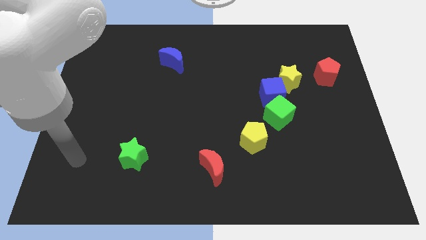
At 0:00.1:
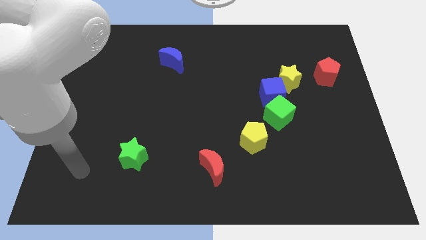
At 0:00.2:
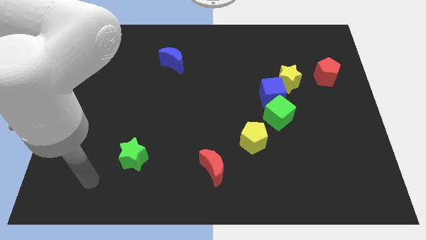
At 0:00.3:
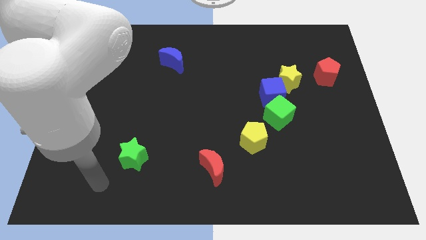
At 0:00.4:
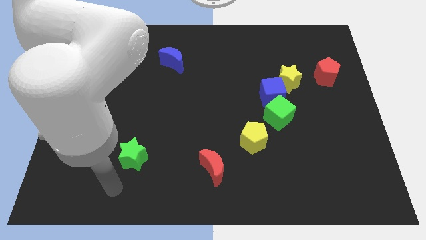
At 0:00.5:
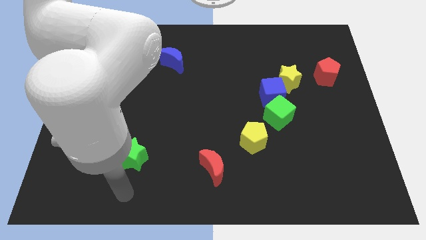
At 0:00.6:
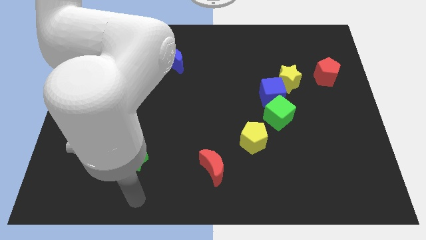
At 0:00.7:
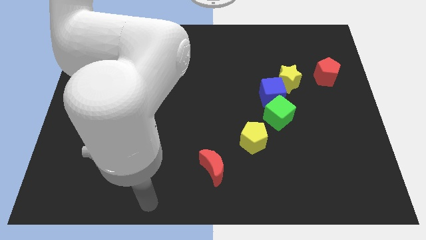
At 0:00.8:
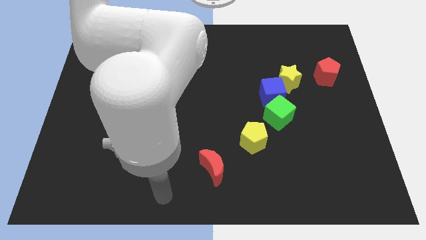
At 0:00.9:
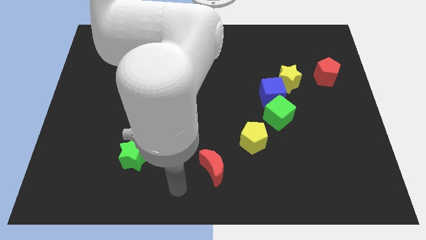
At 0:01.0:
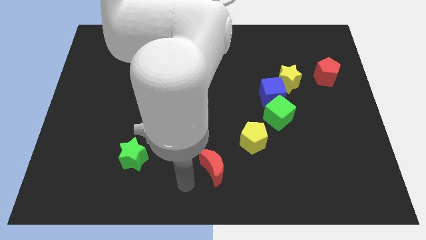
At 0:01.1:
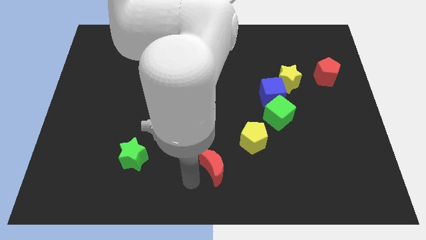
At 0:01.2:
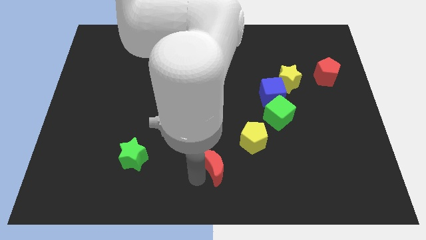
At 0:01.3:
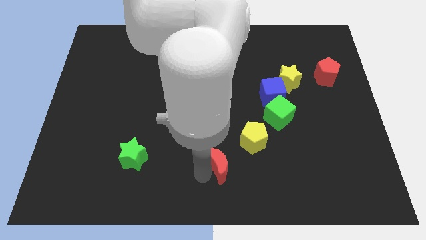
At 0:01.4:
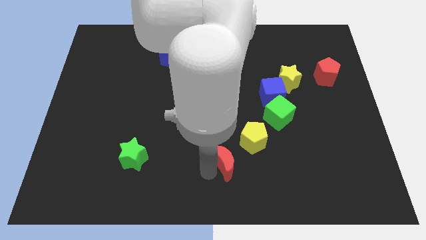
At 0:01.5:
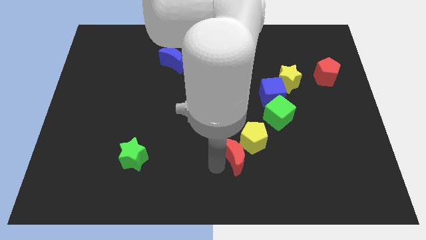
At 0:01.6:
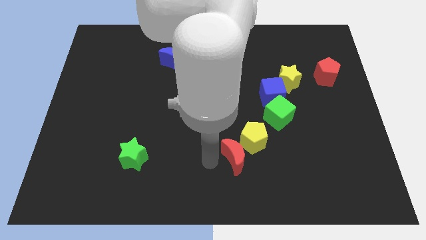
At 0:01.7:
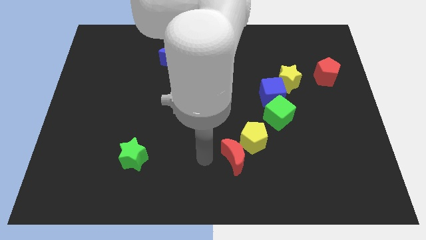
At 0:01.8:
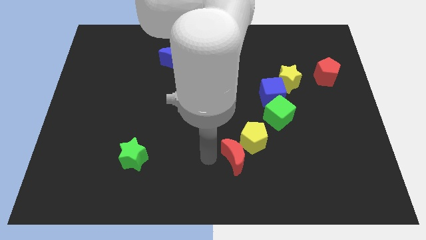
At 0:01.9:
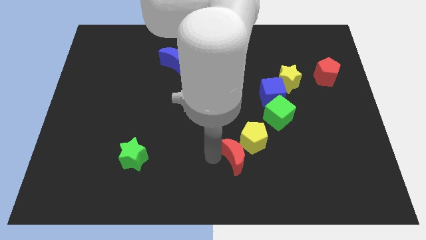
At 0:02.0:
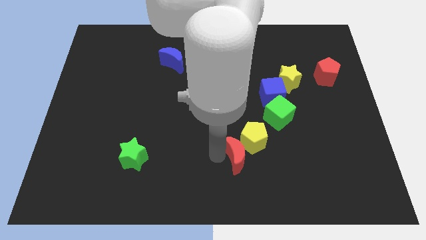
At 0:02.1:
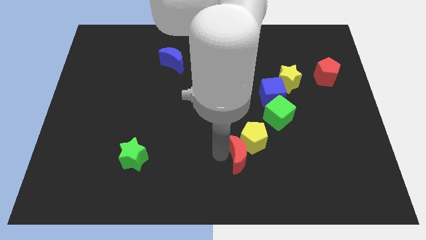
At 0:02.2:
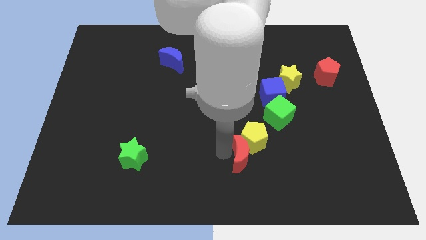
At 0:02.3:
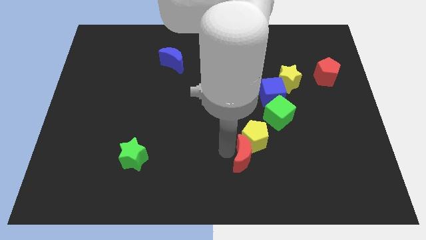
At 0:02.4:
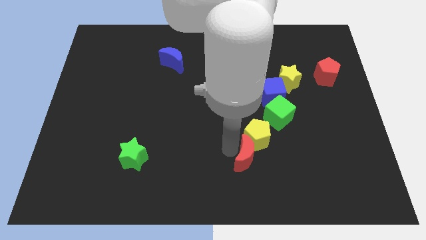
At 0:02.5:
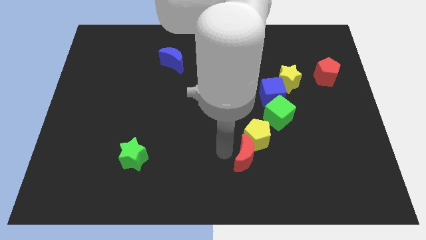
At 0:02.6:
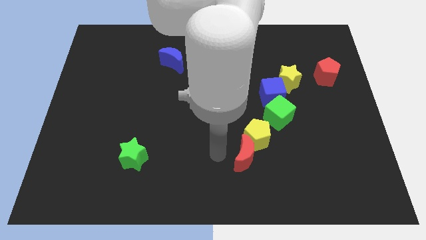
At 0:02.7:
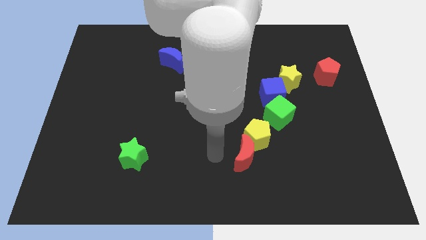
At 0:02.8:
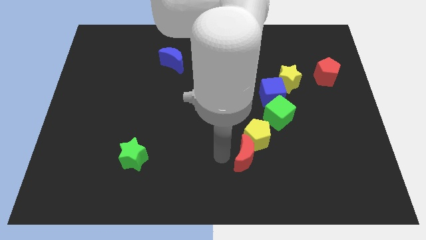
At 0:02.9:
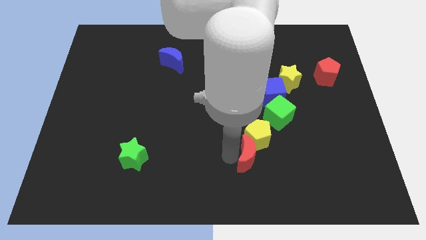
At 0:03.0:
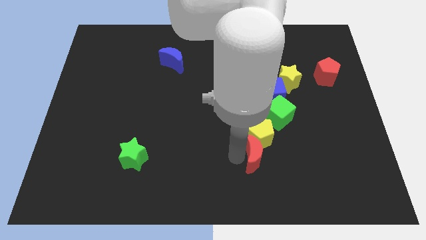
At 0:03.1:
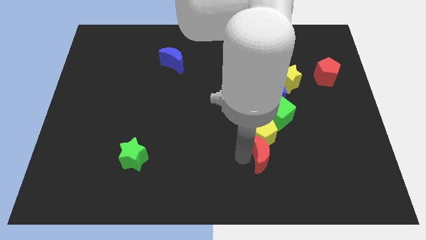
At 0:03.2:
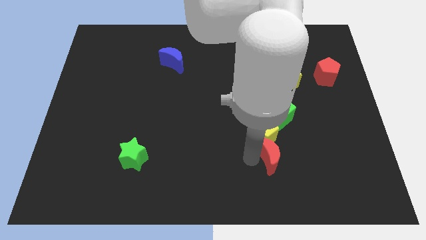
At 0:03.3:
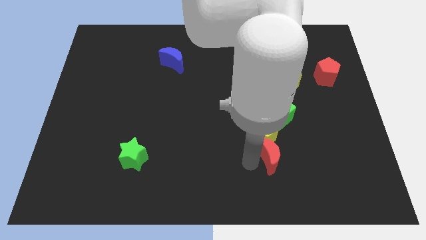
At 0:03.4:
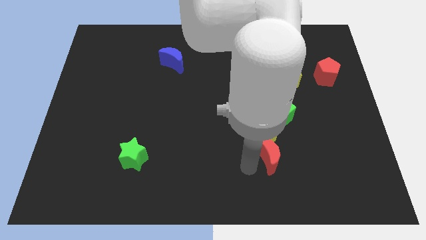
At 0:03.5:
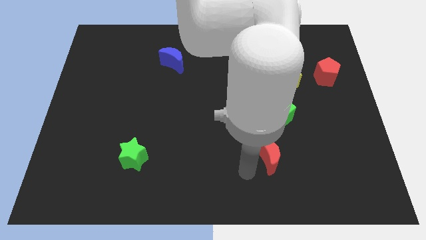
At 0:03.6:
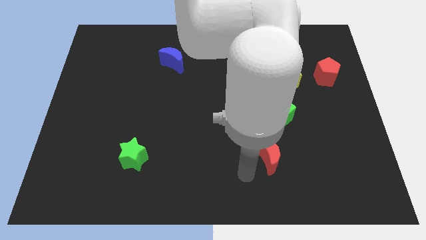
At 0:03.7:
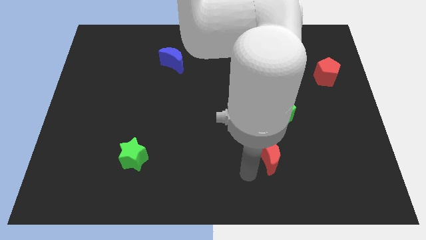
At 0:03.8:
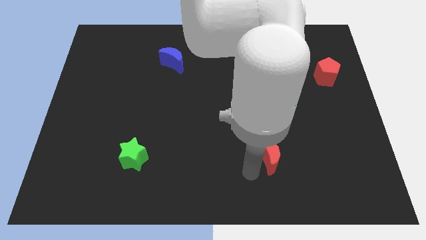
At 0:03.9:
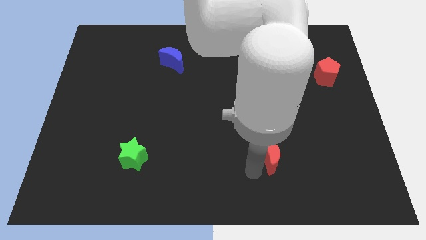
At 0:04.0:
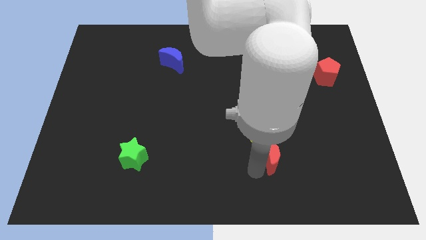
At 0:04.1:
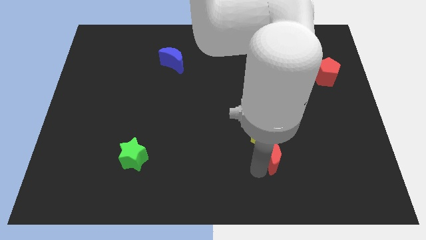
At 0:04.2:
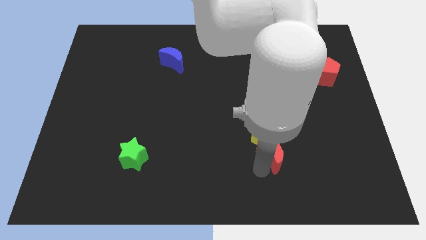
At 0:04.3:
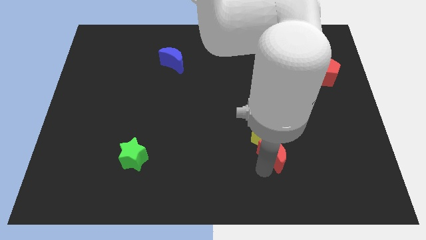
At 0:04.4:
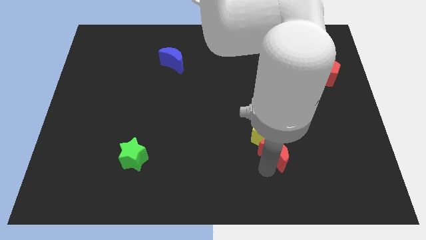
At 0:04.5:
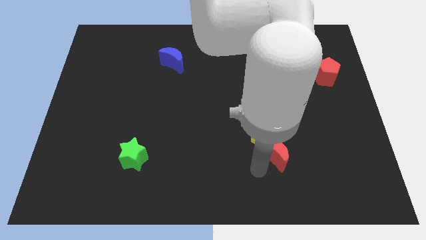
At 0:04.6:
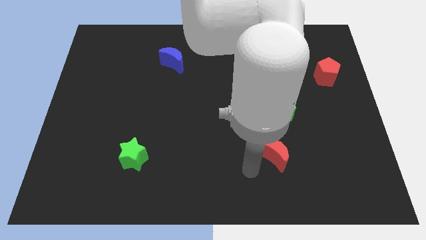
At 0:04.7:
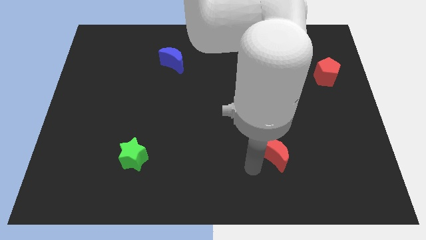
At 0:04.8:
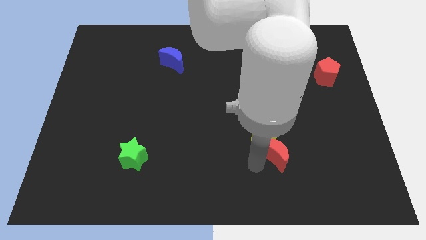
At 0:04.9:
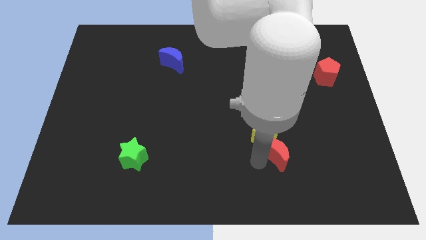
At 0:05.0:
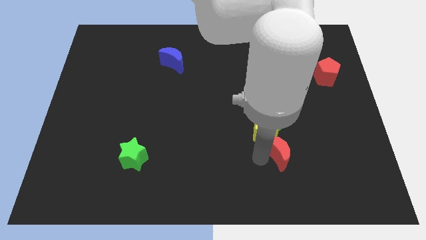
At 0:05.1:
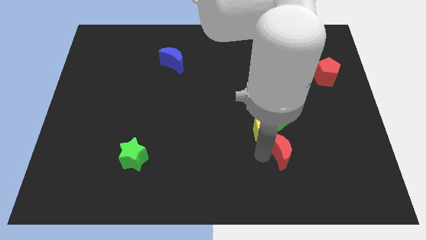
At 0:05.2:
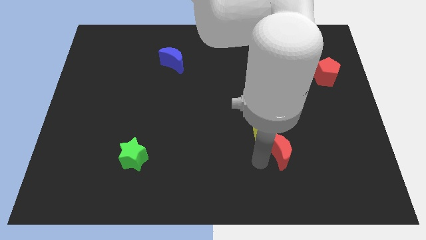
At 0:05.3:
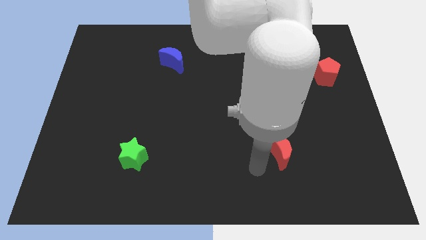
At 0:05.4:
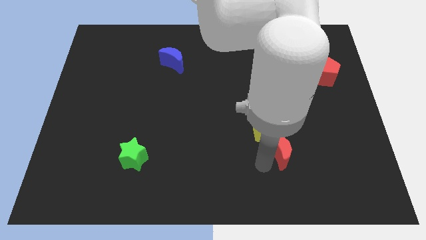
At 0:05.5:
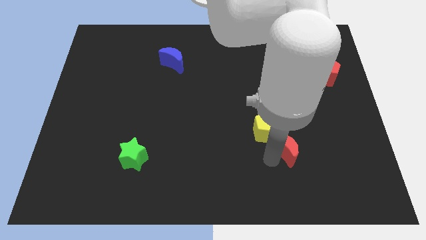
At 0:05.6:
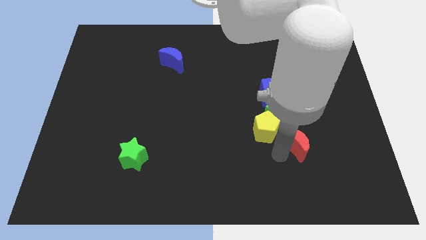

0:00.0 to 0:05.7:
push the red moon to the right side of the yellow pentagon

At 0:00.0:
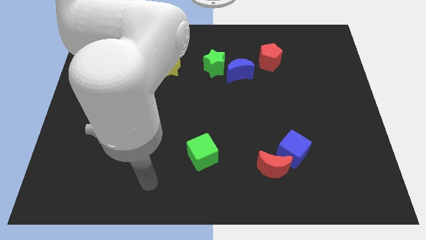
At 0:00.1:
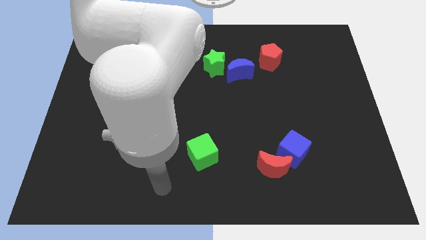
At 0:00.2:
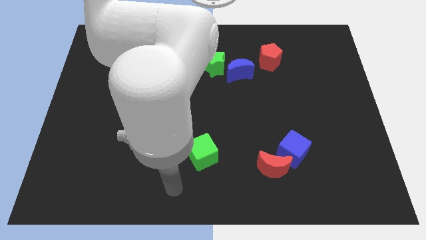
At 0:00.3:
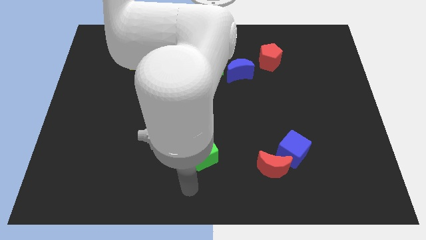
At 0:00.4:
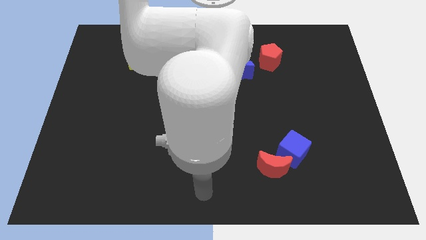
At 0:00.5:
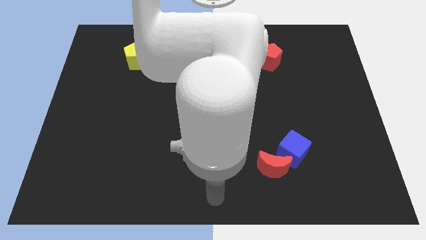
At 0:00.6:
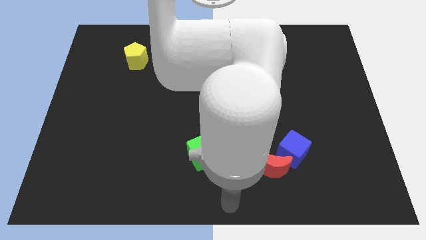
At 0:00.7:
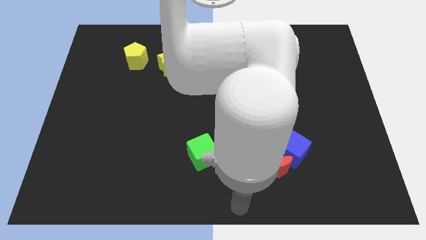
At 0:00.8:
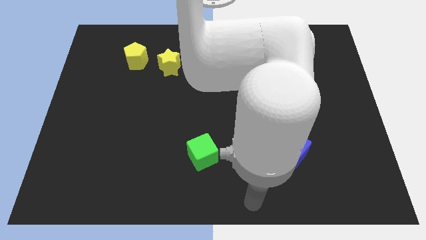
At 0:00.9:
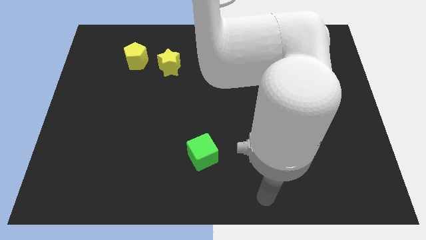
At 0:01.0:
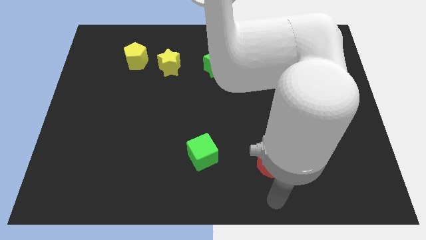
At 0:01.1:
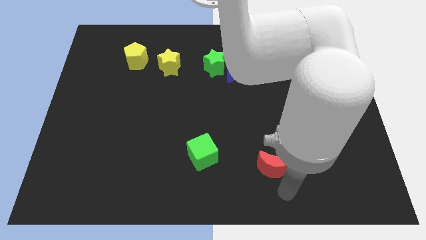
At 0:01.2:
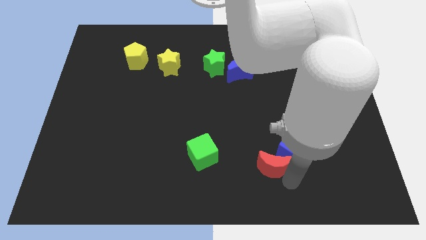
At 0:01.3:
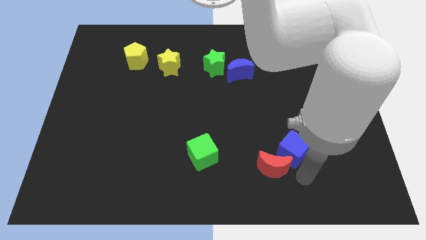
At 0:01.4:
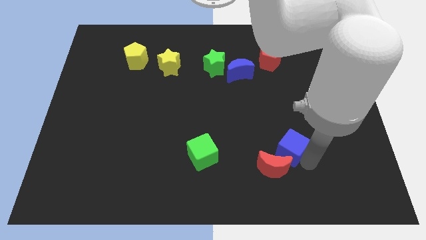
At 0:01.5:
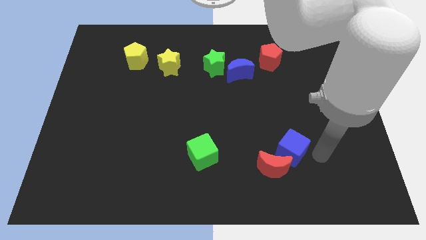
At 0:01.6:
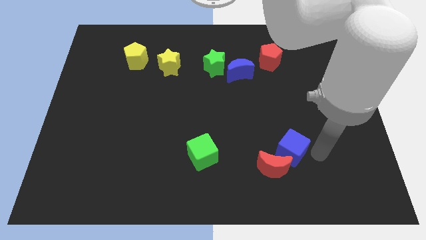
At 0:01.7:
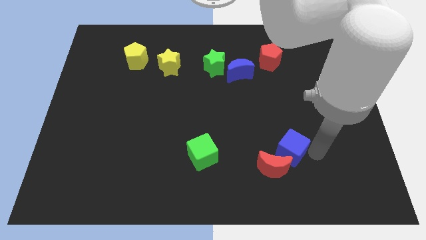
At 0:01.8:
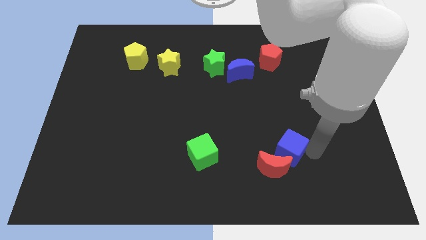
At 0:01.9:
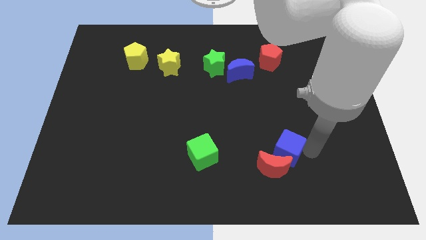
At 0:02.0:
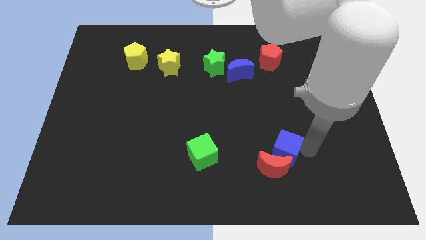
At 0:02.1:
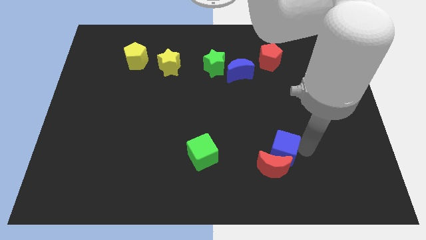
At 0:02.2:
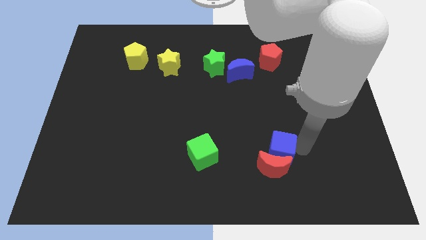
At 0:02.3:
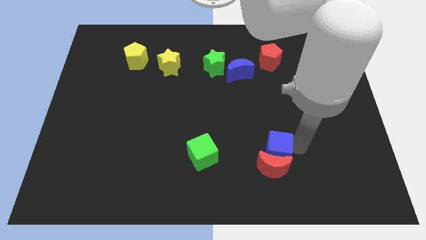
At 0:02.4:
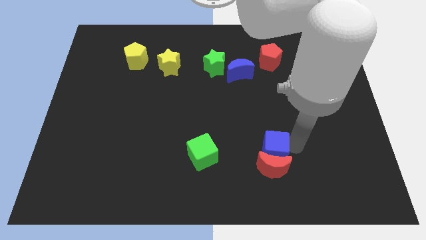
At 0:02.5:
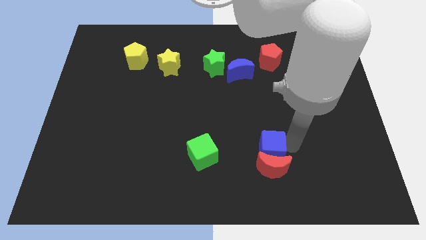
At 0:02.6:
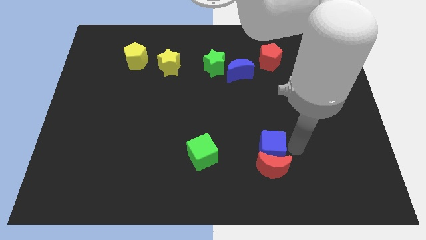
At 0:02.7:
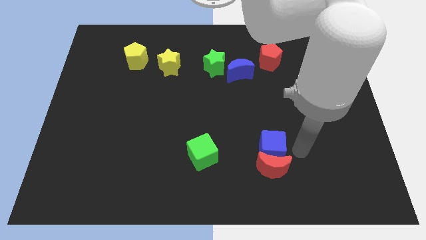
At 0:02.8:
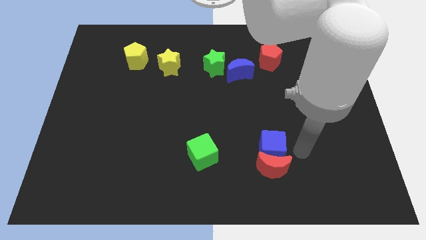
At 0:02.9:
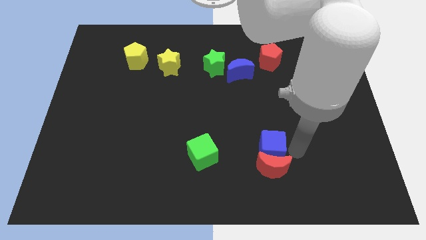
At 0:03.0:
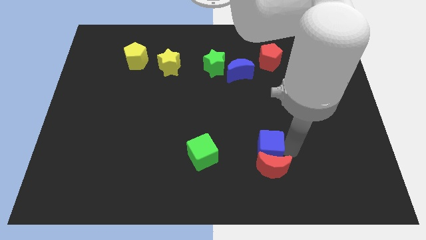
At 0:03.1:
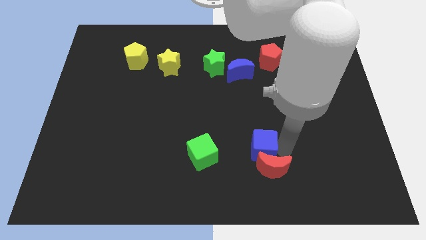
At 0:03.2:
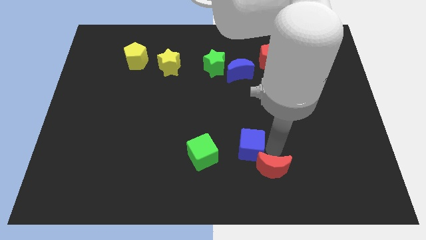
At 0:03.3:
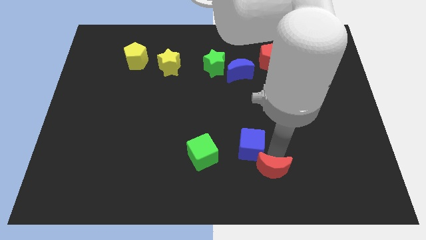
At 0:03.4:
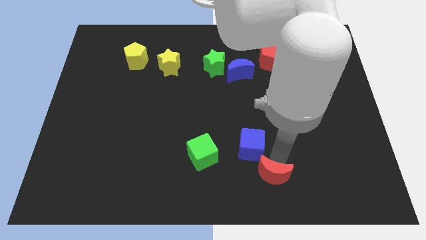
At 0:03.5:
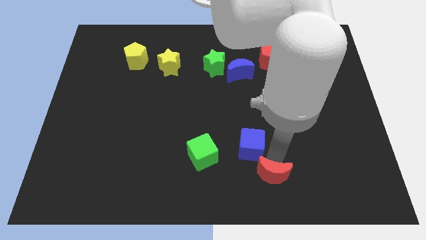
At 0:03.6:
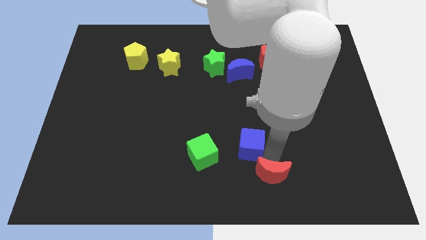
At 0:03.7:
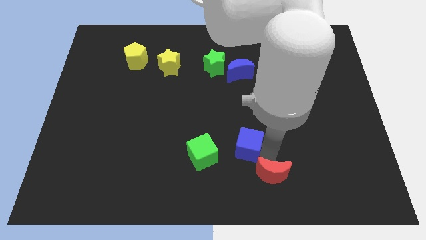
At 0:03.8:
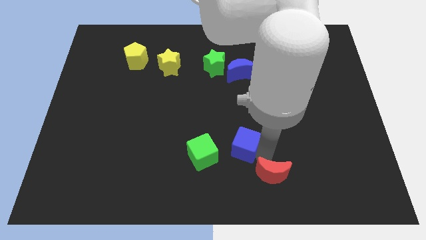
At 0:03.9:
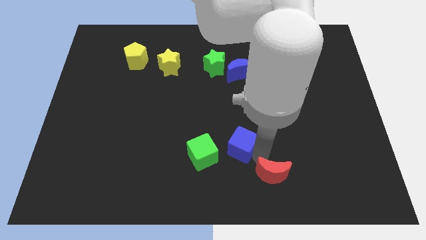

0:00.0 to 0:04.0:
put the blue cube diagonally up and to the right of the green cube
